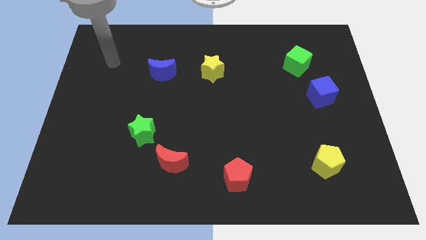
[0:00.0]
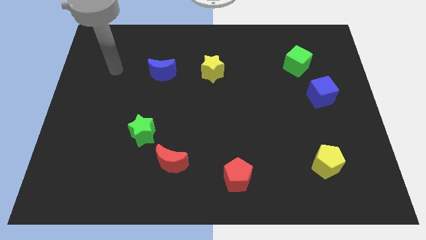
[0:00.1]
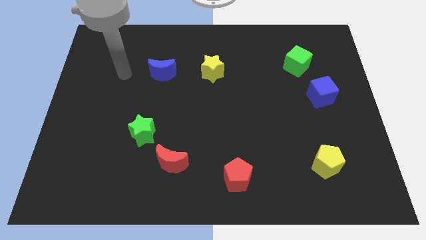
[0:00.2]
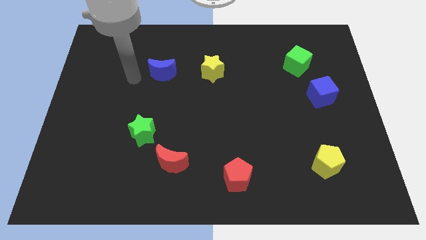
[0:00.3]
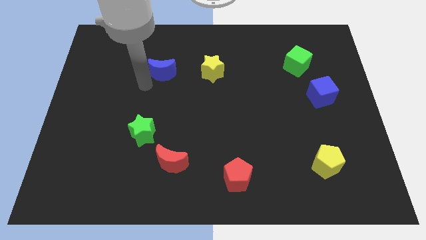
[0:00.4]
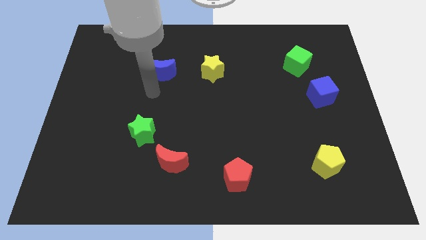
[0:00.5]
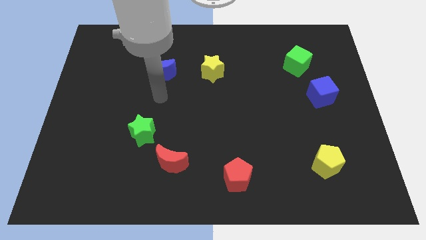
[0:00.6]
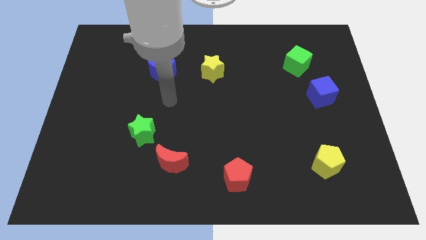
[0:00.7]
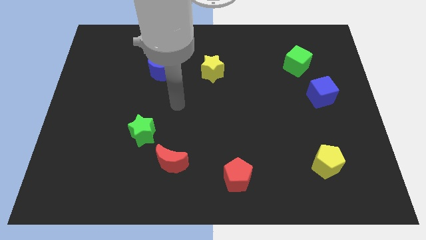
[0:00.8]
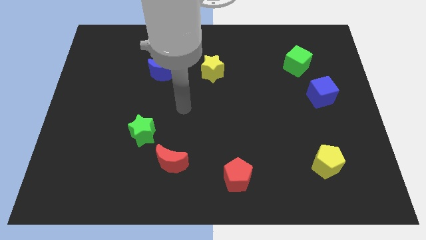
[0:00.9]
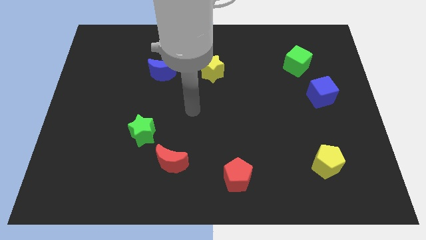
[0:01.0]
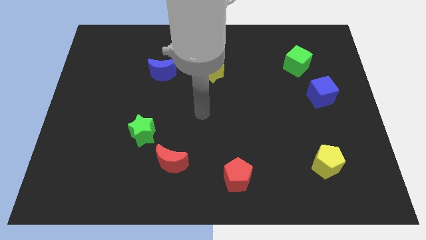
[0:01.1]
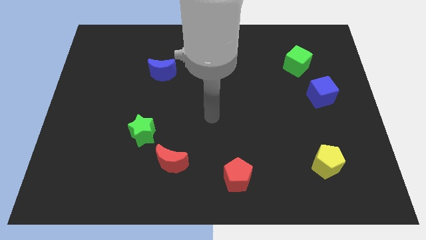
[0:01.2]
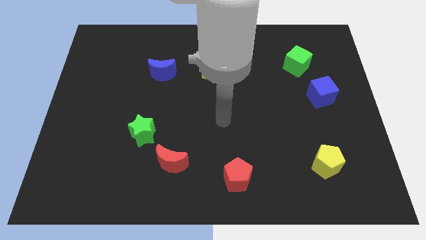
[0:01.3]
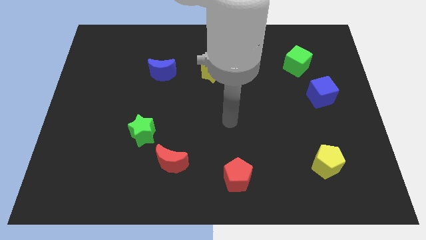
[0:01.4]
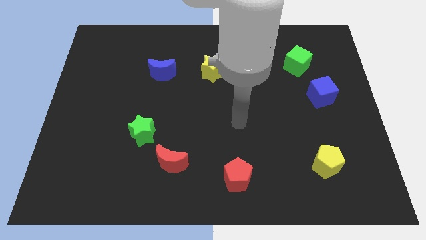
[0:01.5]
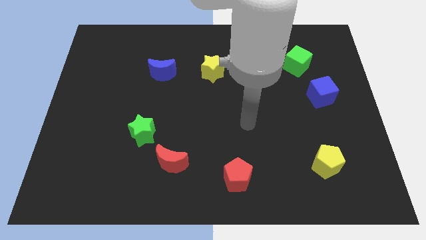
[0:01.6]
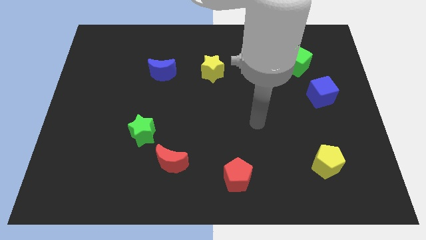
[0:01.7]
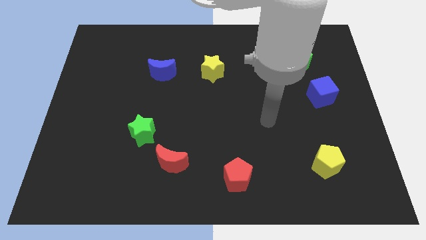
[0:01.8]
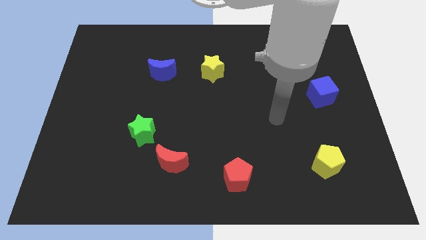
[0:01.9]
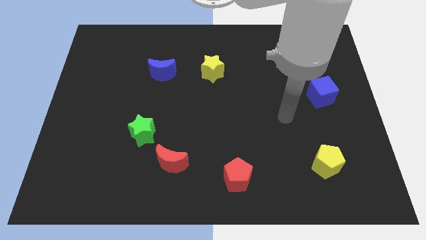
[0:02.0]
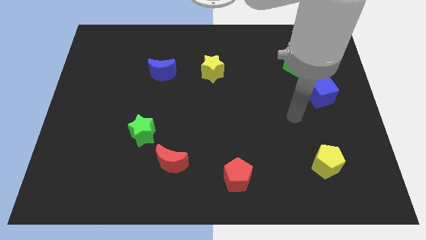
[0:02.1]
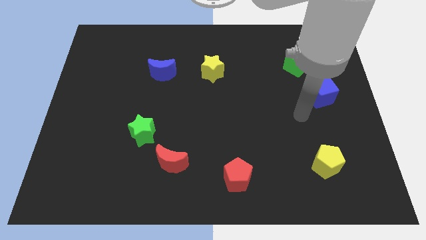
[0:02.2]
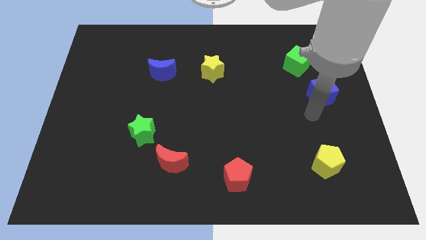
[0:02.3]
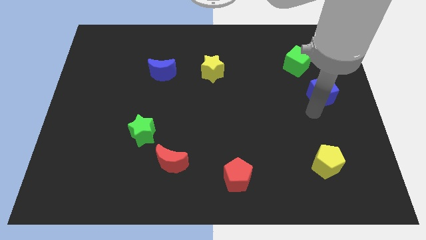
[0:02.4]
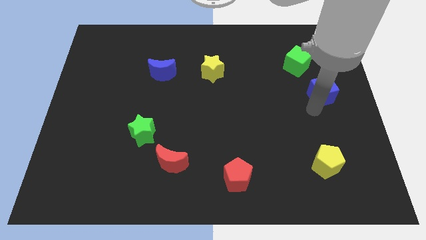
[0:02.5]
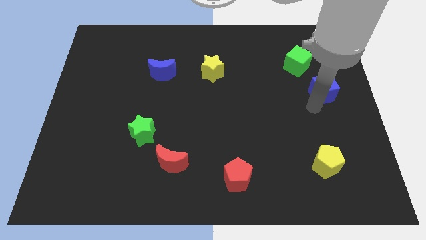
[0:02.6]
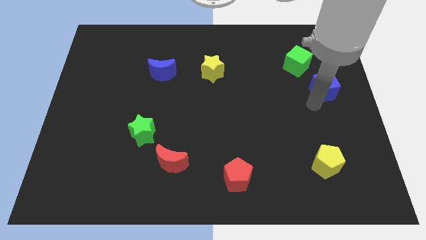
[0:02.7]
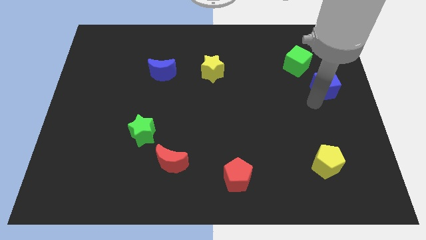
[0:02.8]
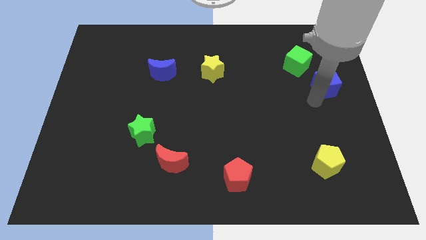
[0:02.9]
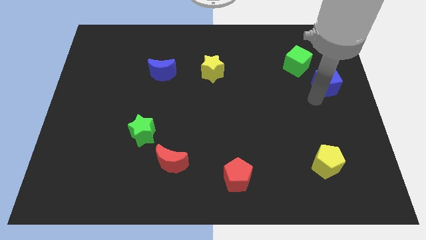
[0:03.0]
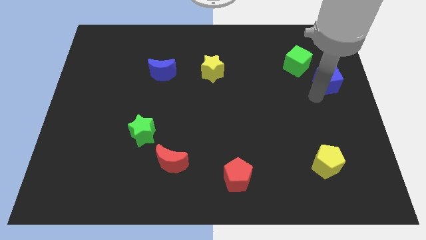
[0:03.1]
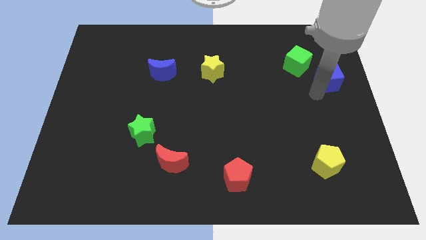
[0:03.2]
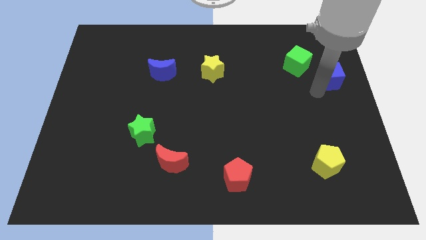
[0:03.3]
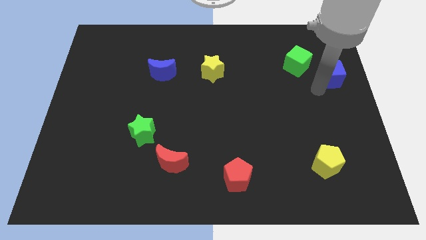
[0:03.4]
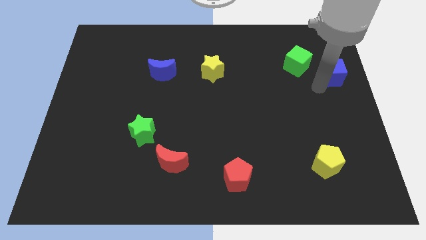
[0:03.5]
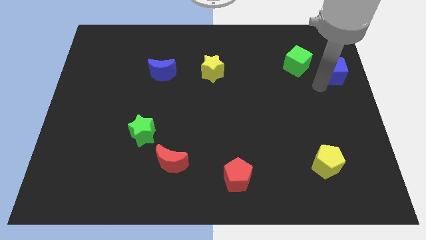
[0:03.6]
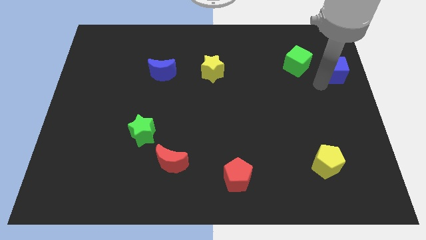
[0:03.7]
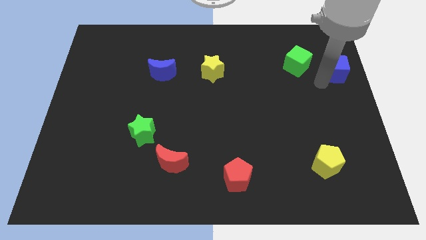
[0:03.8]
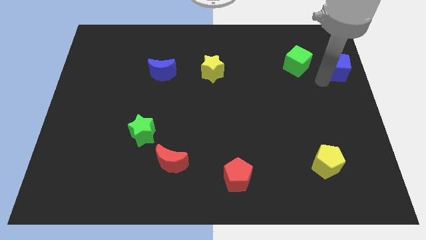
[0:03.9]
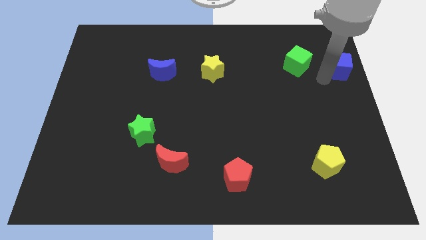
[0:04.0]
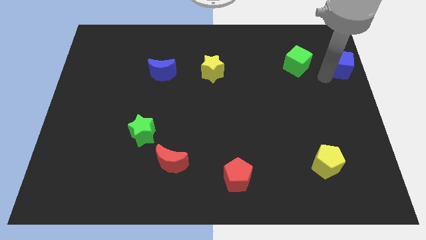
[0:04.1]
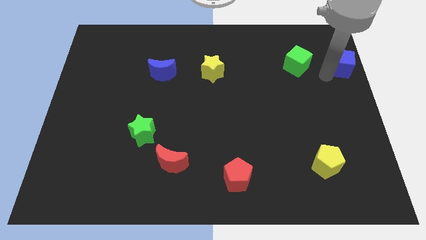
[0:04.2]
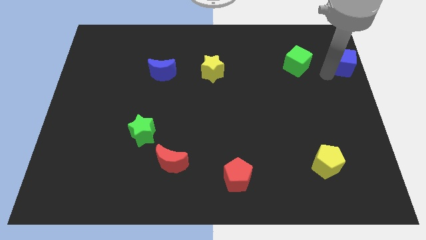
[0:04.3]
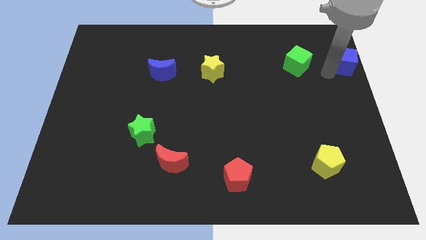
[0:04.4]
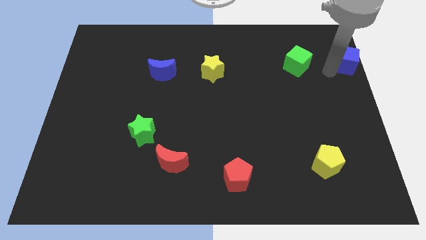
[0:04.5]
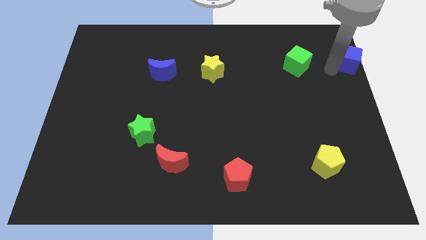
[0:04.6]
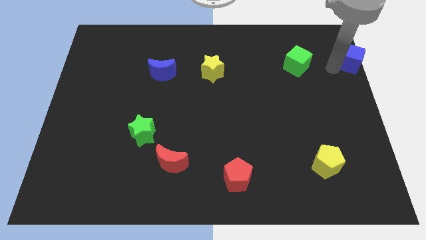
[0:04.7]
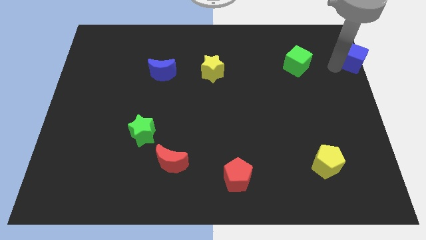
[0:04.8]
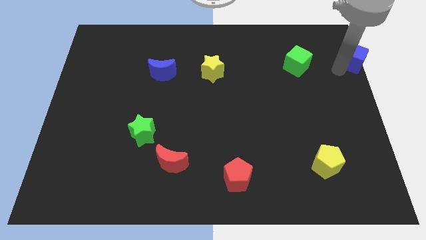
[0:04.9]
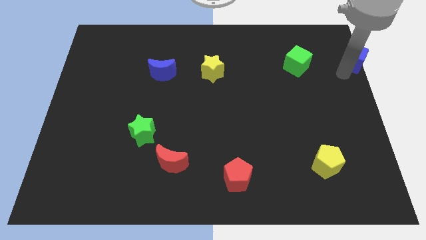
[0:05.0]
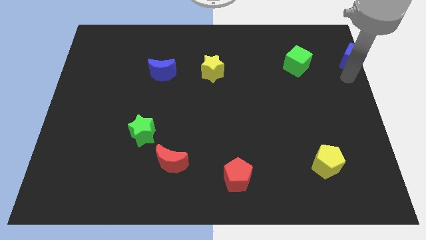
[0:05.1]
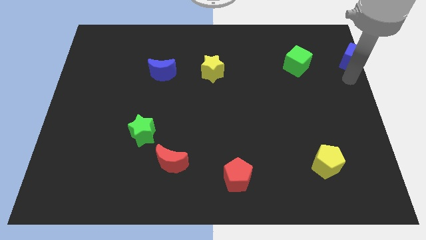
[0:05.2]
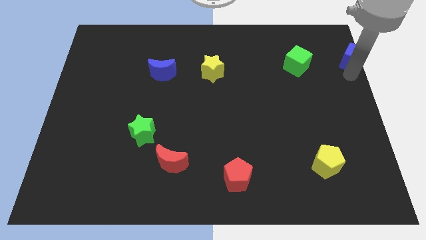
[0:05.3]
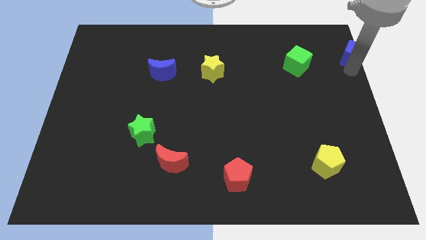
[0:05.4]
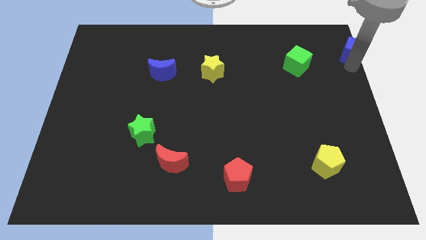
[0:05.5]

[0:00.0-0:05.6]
slide the blue cube to the upper right corner
